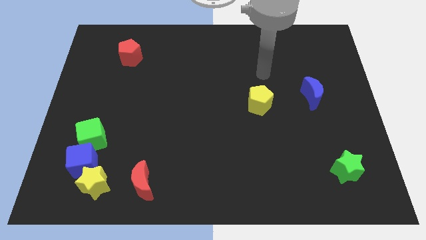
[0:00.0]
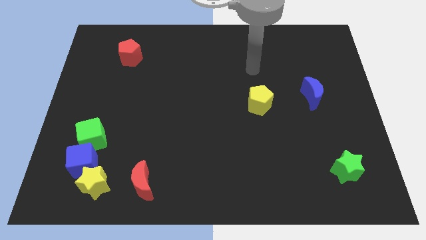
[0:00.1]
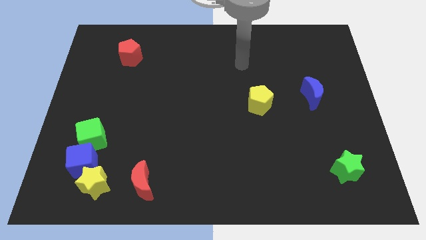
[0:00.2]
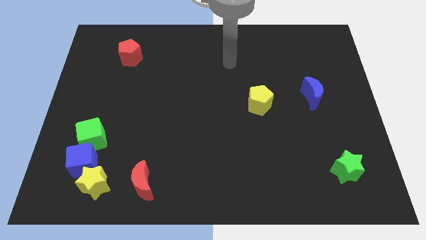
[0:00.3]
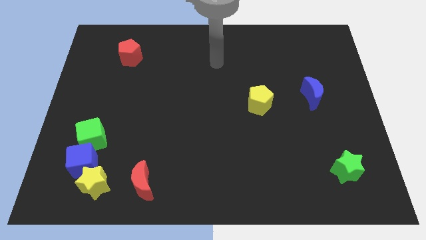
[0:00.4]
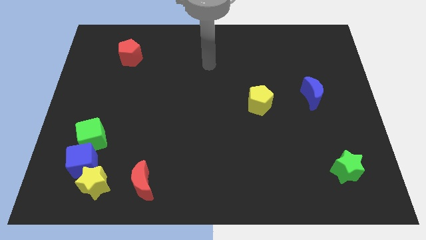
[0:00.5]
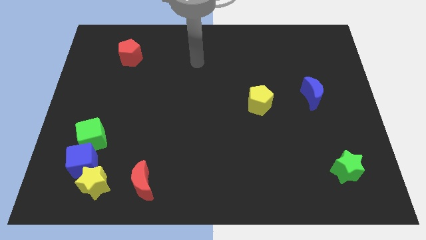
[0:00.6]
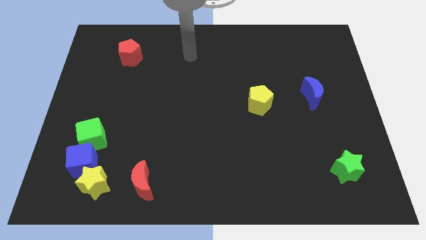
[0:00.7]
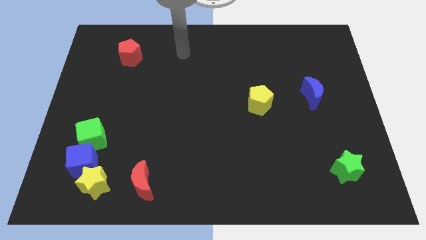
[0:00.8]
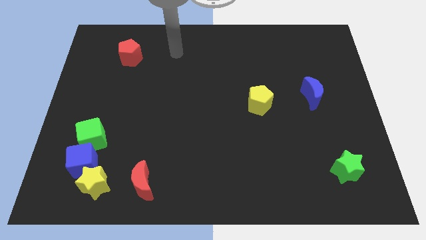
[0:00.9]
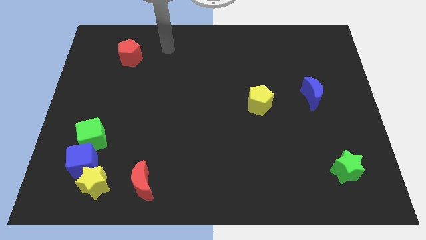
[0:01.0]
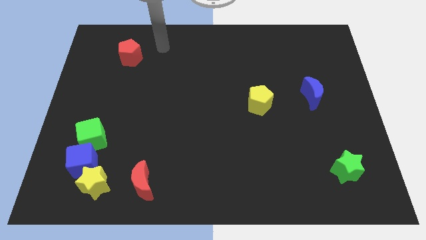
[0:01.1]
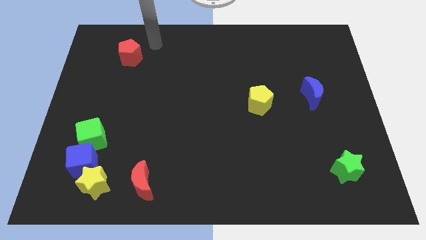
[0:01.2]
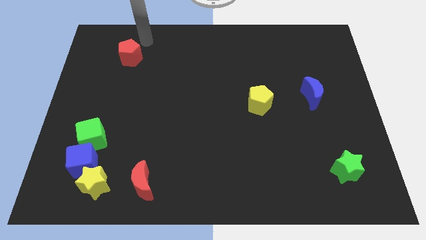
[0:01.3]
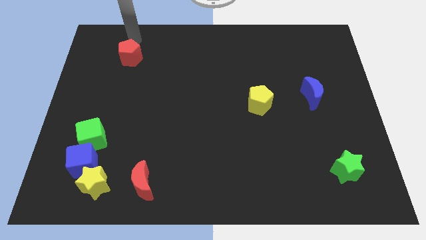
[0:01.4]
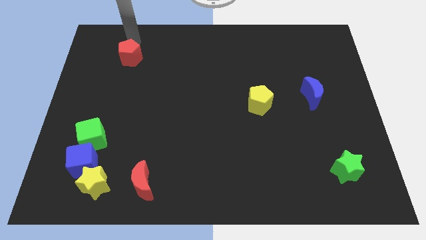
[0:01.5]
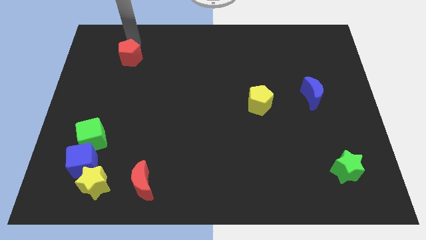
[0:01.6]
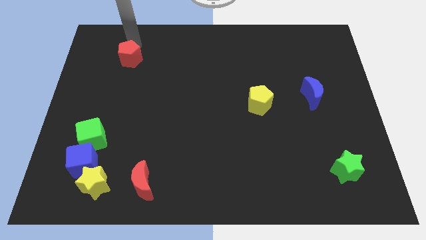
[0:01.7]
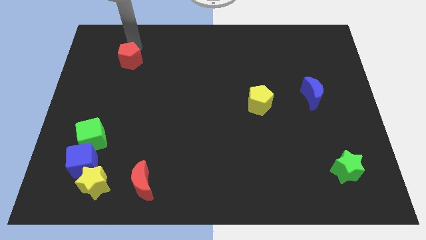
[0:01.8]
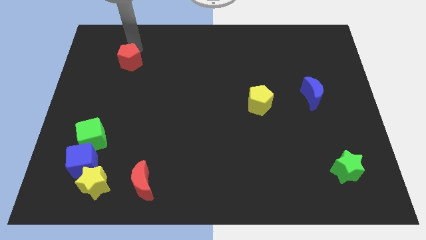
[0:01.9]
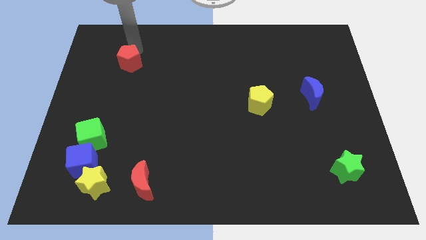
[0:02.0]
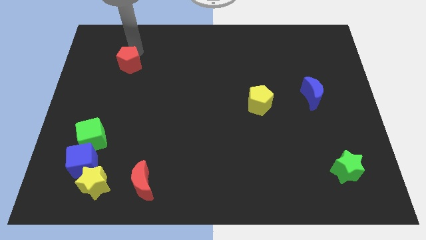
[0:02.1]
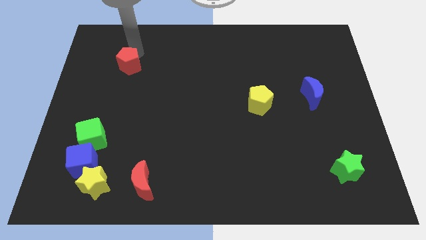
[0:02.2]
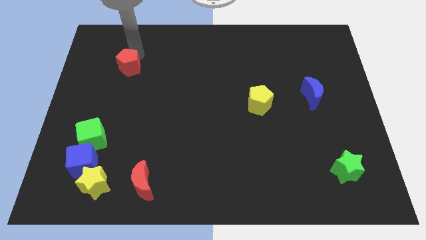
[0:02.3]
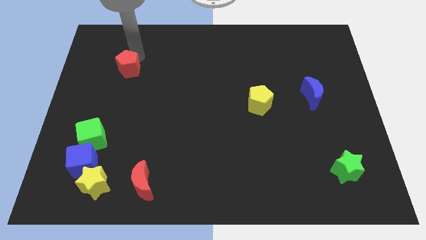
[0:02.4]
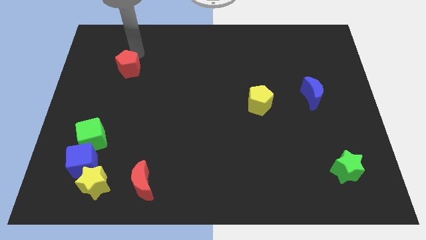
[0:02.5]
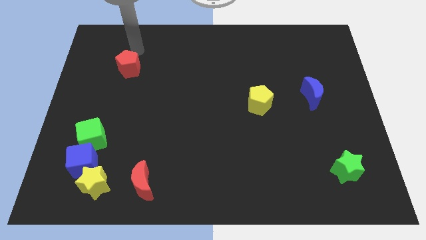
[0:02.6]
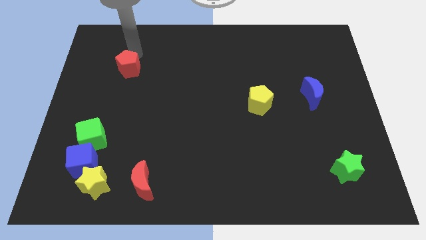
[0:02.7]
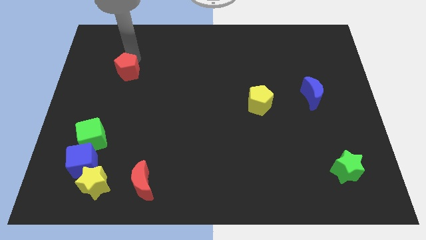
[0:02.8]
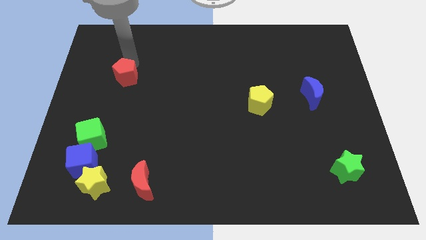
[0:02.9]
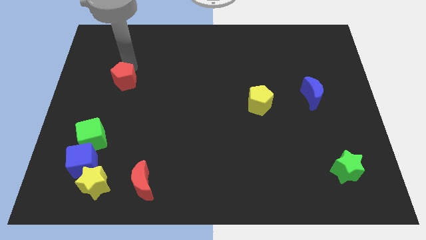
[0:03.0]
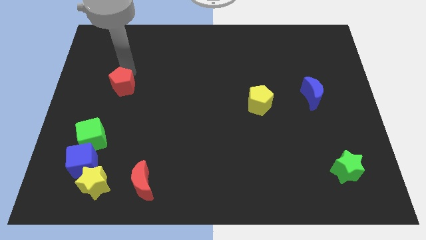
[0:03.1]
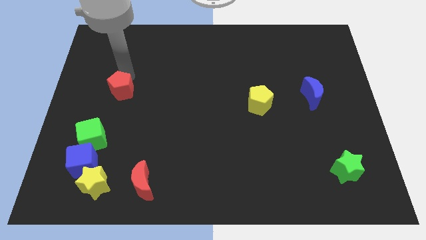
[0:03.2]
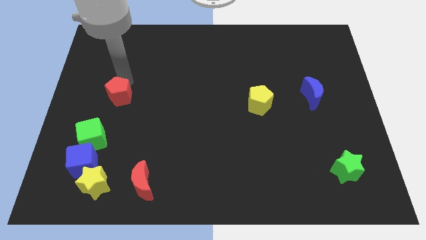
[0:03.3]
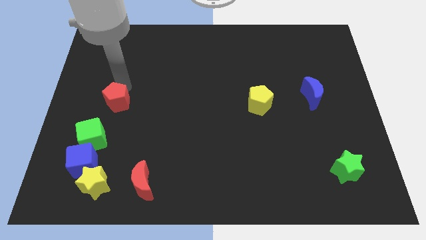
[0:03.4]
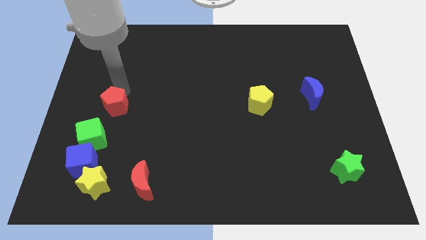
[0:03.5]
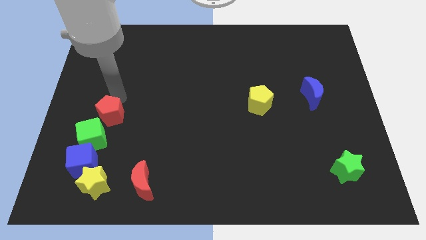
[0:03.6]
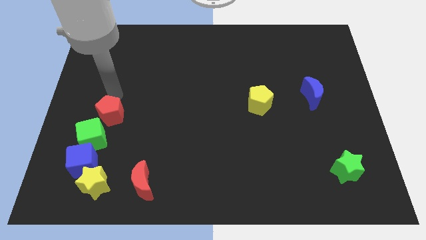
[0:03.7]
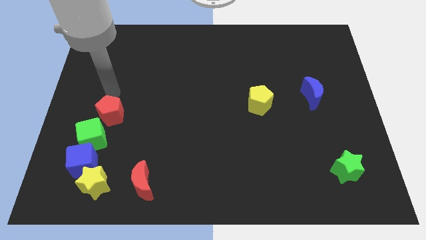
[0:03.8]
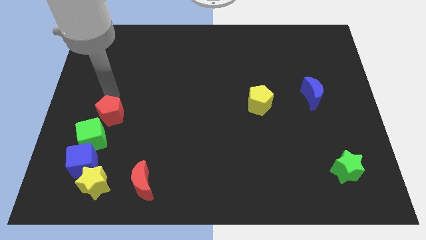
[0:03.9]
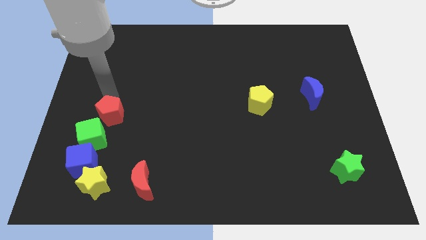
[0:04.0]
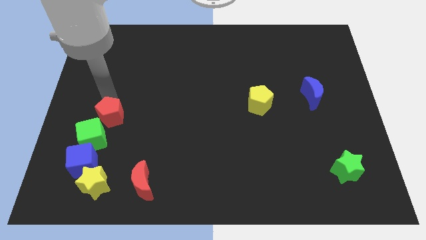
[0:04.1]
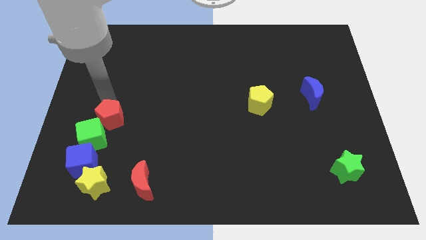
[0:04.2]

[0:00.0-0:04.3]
push the red pentagon down

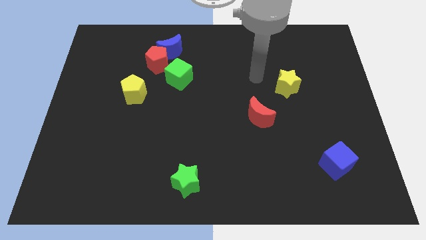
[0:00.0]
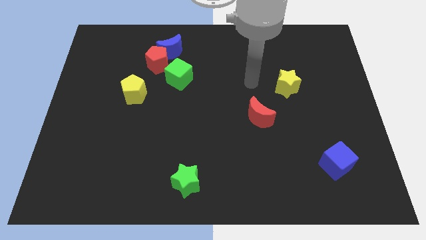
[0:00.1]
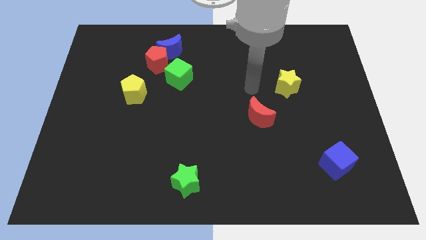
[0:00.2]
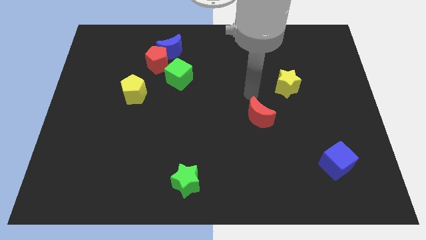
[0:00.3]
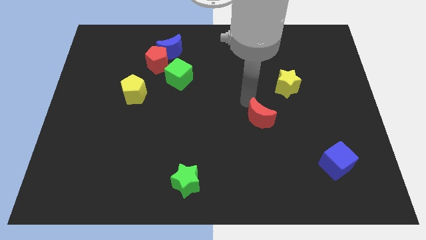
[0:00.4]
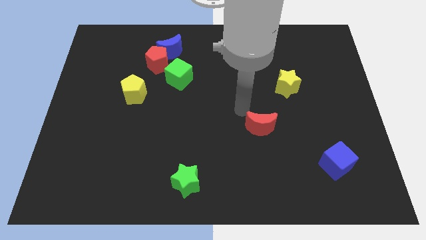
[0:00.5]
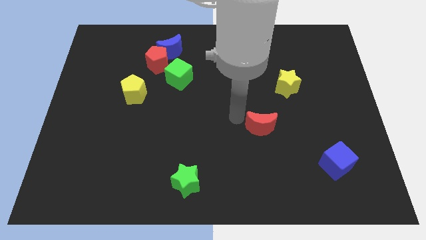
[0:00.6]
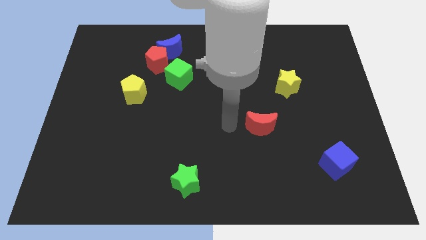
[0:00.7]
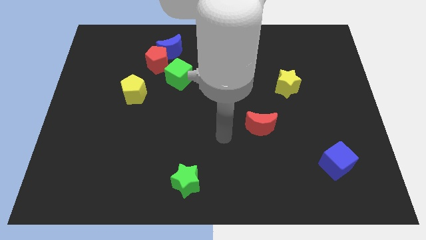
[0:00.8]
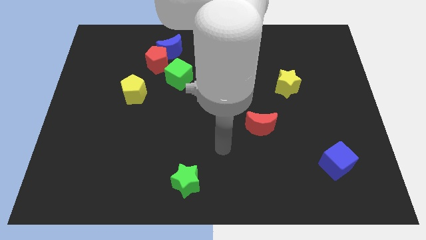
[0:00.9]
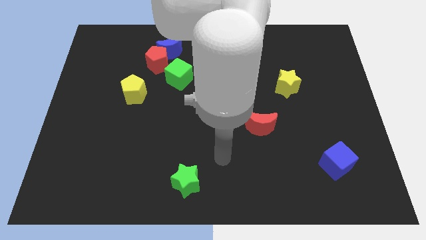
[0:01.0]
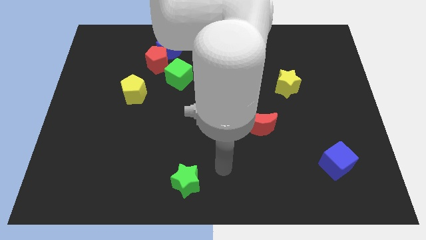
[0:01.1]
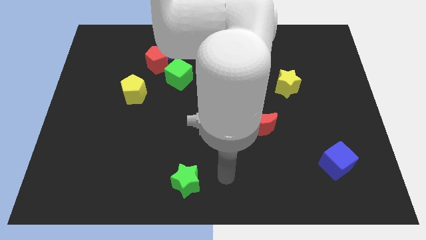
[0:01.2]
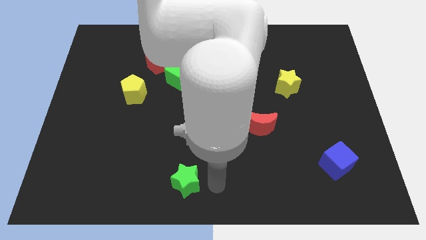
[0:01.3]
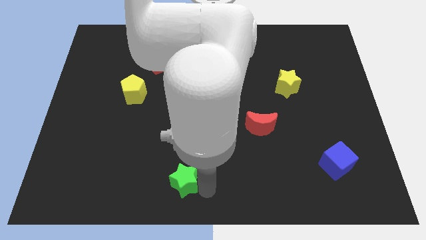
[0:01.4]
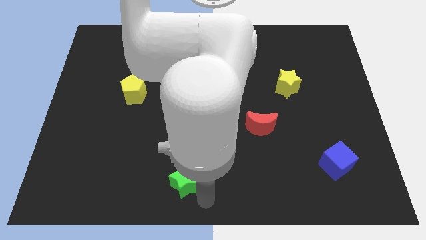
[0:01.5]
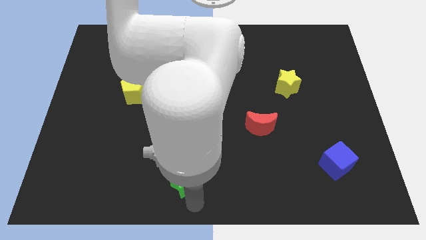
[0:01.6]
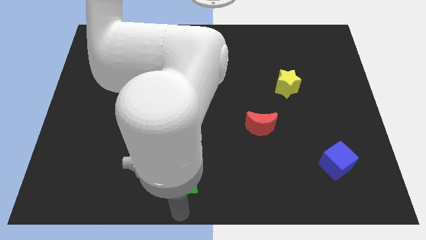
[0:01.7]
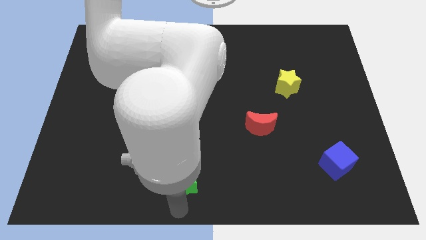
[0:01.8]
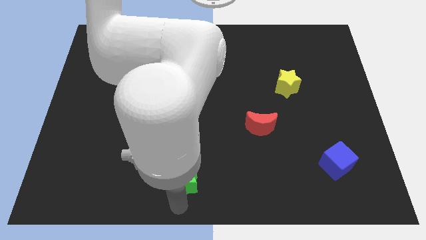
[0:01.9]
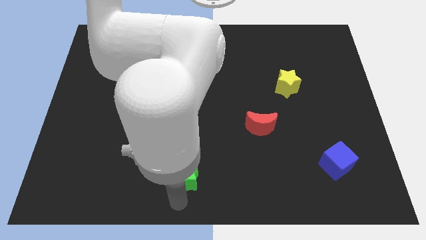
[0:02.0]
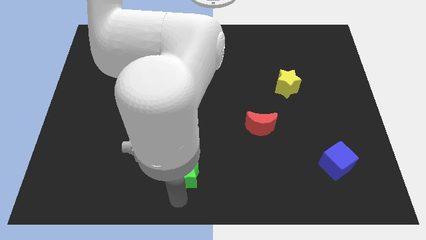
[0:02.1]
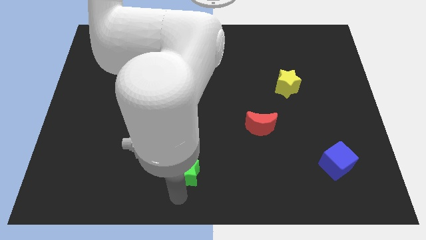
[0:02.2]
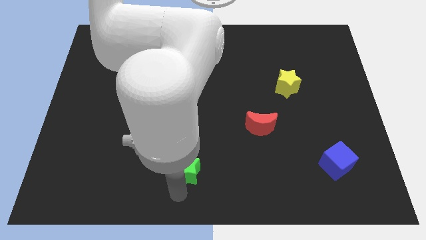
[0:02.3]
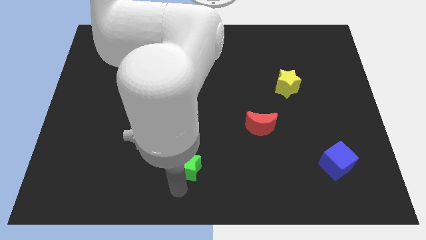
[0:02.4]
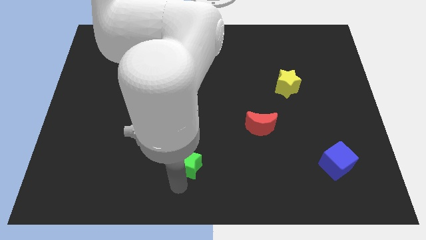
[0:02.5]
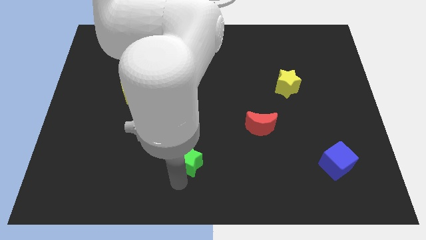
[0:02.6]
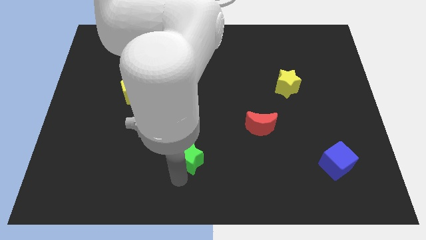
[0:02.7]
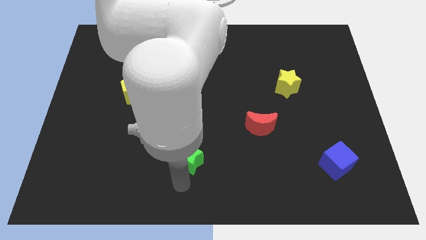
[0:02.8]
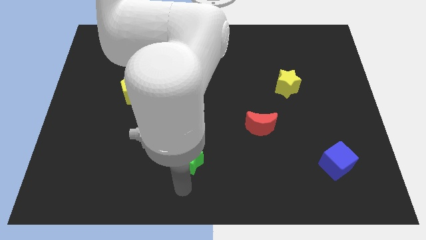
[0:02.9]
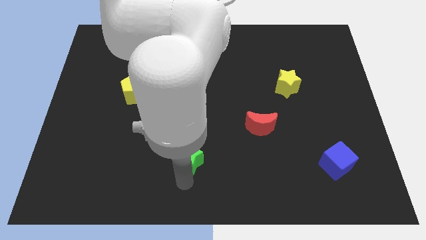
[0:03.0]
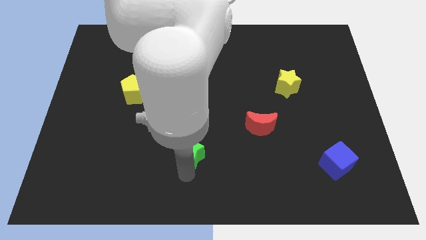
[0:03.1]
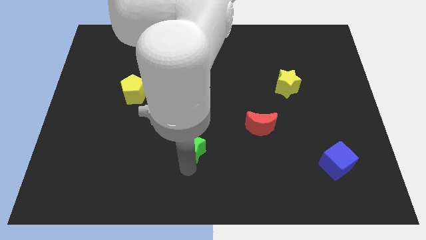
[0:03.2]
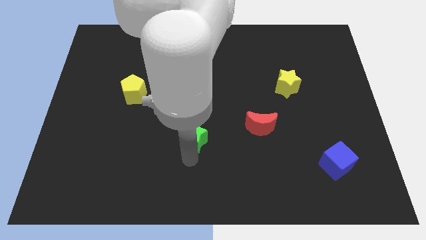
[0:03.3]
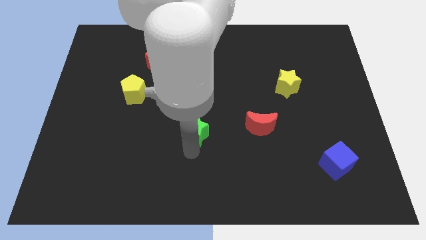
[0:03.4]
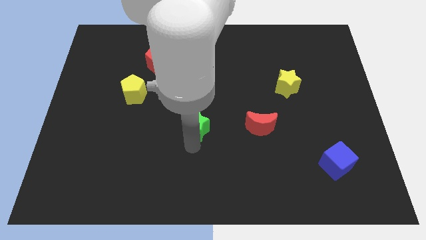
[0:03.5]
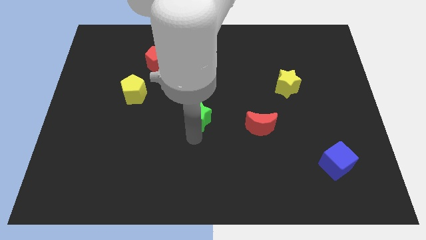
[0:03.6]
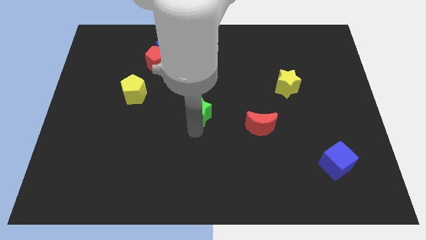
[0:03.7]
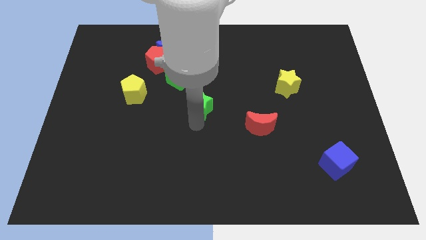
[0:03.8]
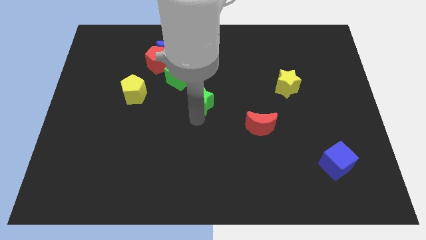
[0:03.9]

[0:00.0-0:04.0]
slide the green star up
